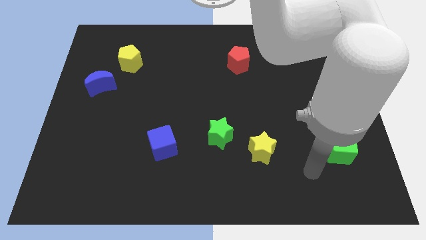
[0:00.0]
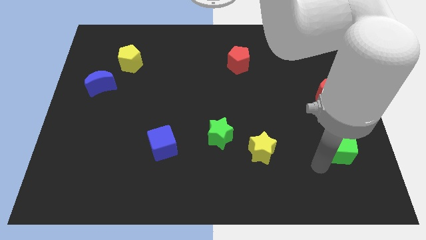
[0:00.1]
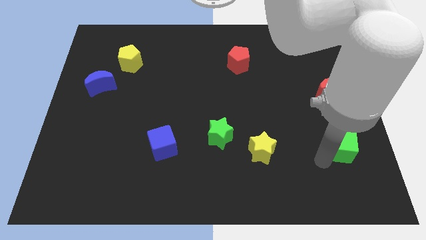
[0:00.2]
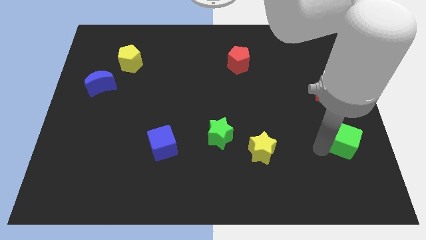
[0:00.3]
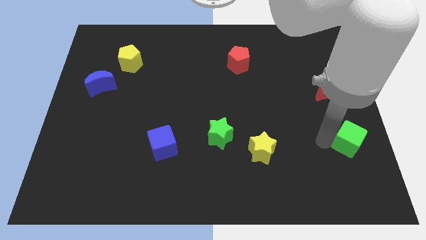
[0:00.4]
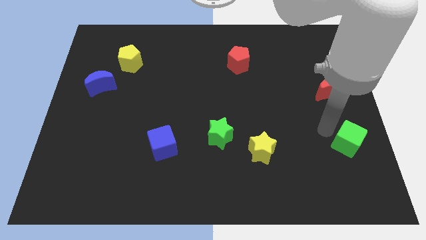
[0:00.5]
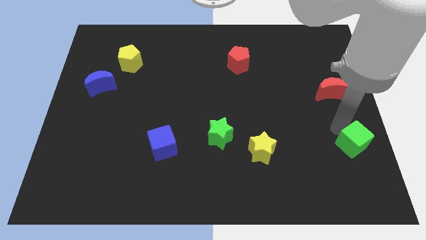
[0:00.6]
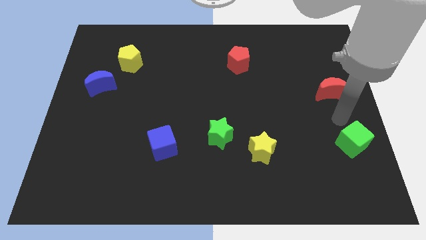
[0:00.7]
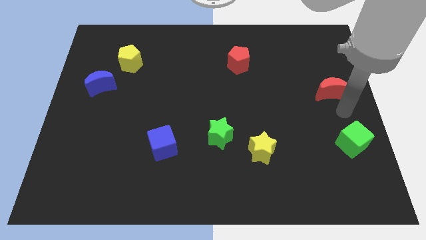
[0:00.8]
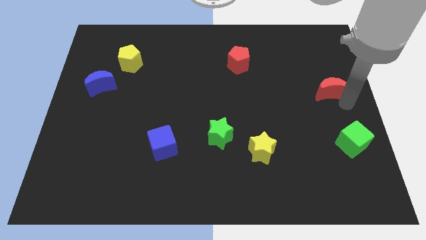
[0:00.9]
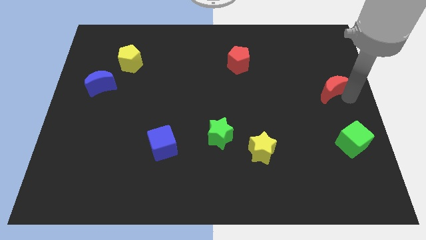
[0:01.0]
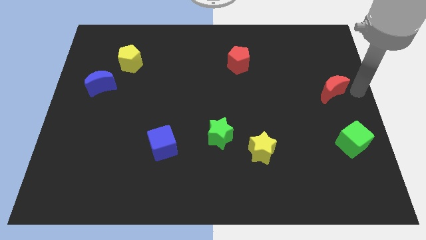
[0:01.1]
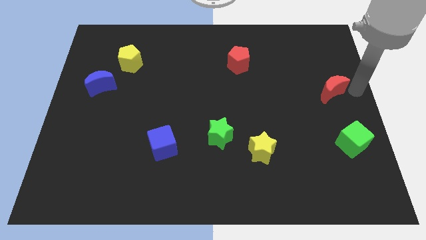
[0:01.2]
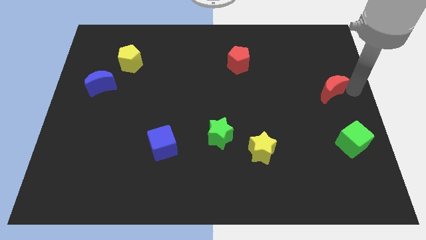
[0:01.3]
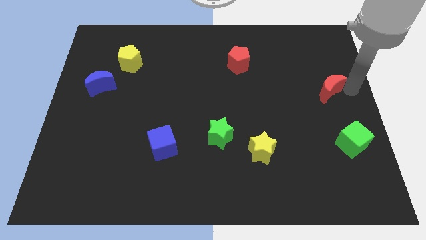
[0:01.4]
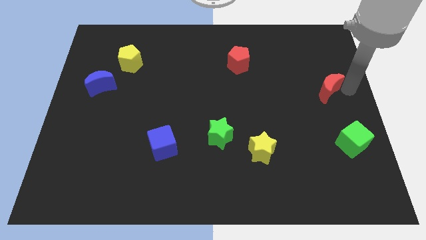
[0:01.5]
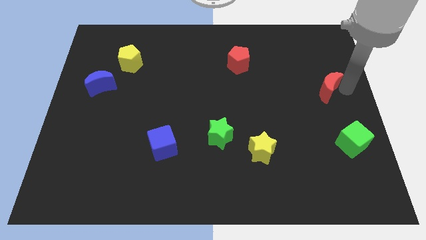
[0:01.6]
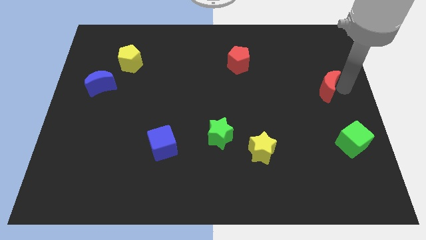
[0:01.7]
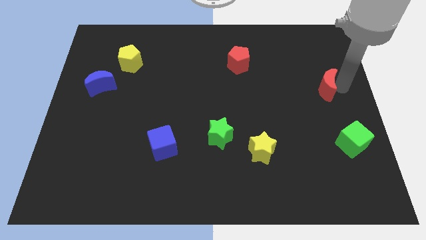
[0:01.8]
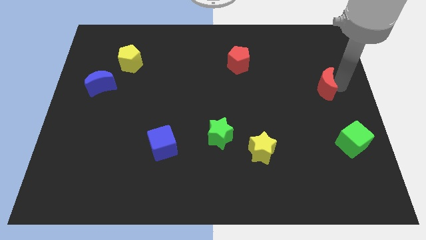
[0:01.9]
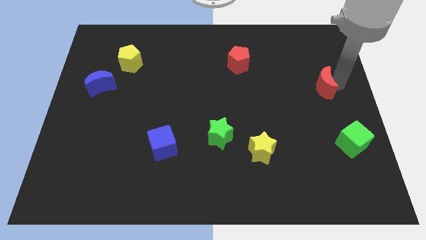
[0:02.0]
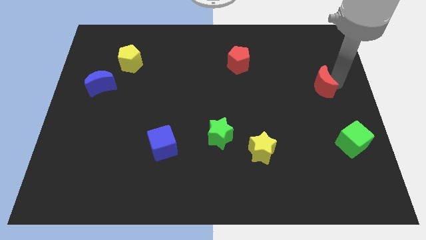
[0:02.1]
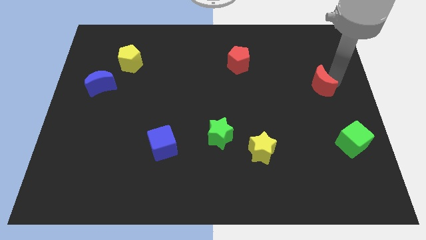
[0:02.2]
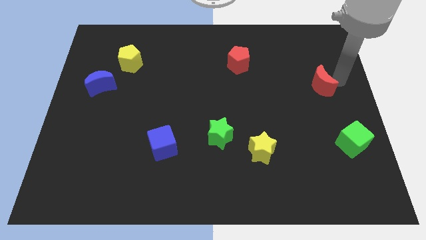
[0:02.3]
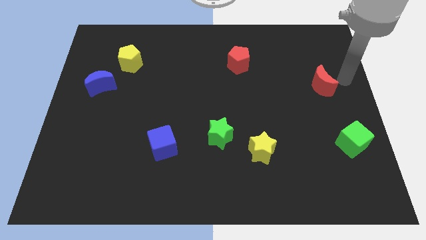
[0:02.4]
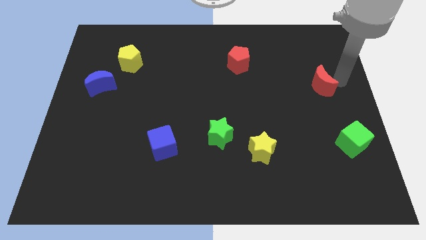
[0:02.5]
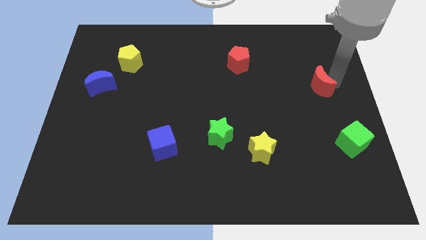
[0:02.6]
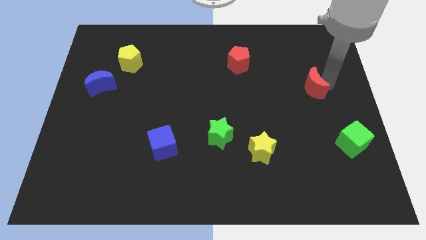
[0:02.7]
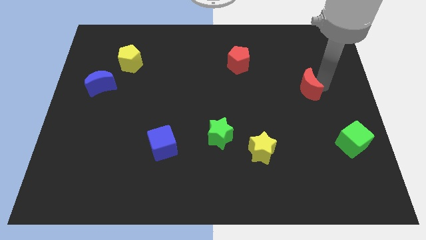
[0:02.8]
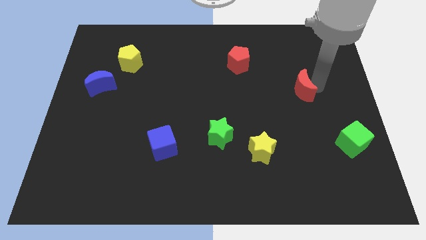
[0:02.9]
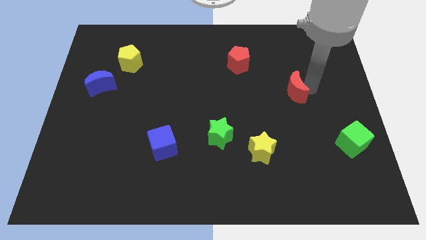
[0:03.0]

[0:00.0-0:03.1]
slide the red moon to the left a little

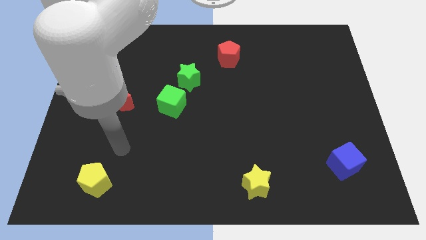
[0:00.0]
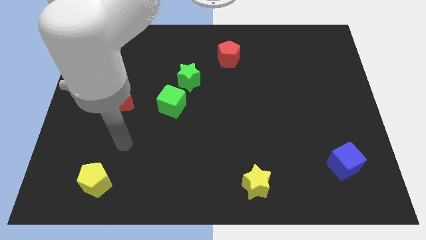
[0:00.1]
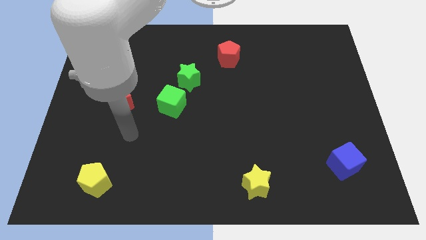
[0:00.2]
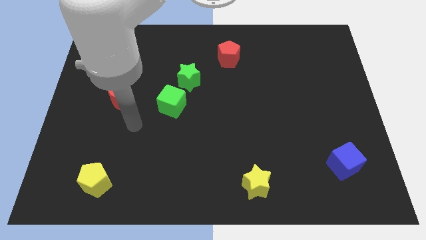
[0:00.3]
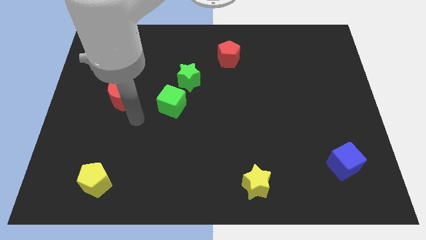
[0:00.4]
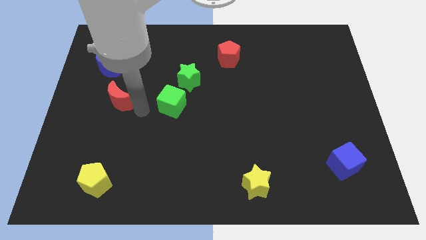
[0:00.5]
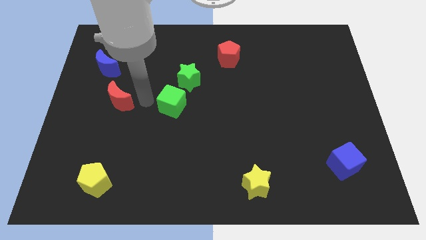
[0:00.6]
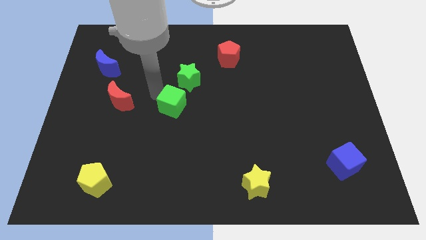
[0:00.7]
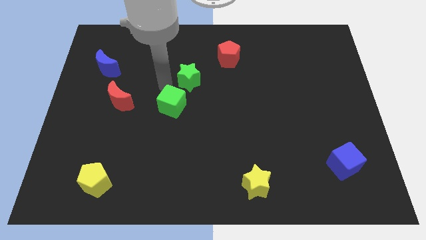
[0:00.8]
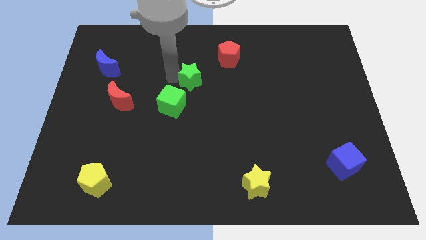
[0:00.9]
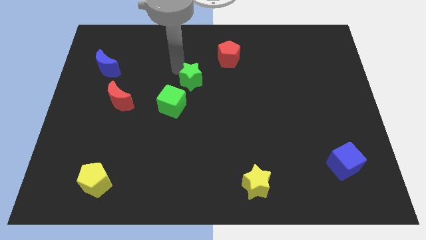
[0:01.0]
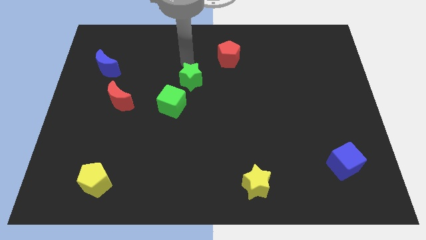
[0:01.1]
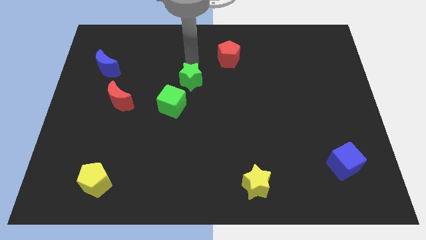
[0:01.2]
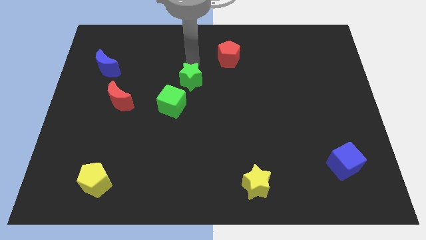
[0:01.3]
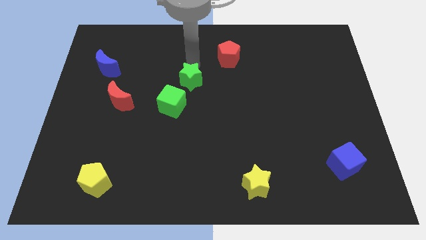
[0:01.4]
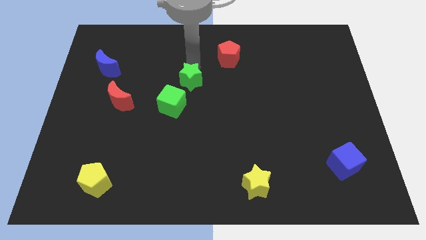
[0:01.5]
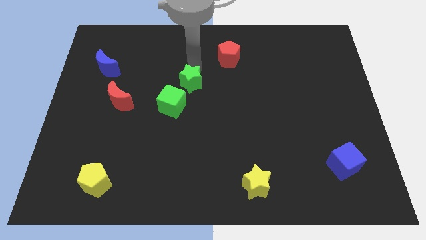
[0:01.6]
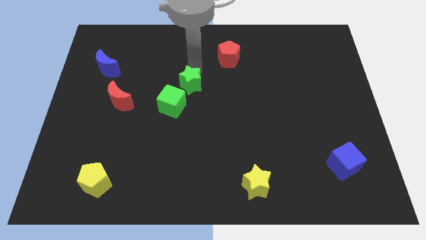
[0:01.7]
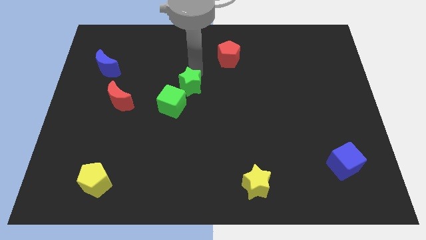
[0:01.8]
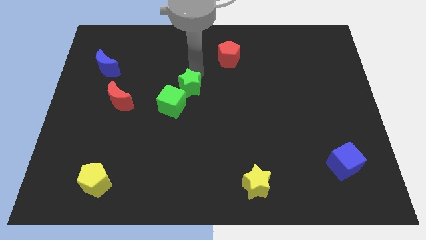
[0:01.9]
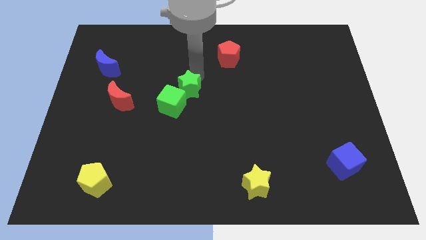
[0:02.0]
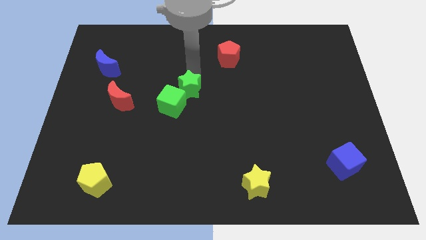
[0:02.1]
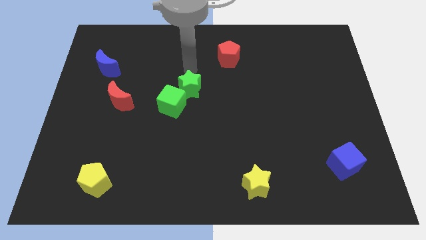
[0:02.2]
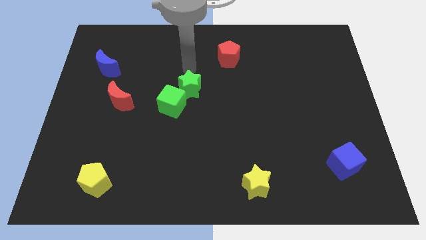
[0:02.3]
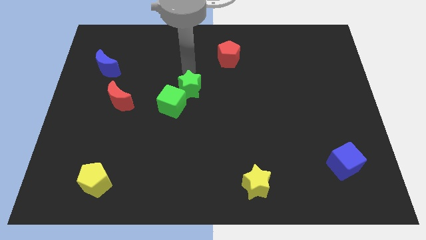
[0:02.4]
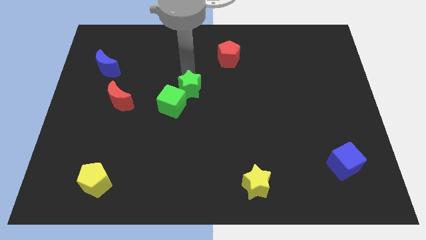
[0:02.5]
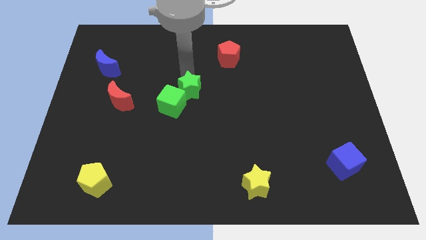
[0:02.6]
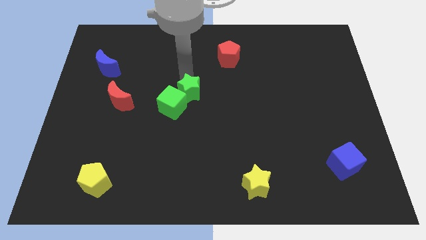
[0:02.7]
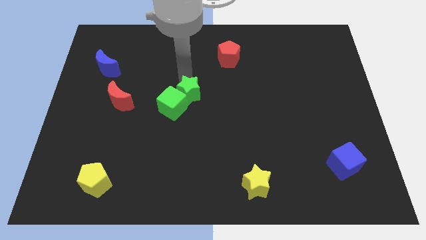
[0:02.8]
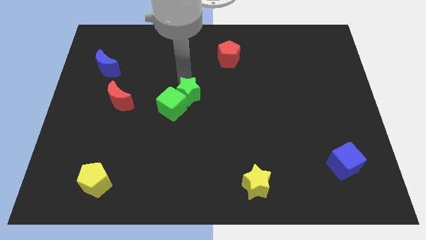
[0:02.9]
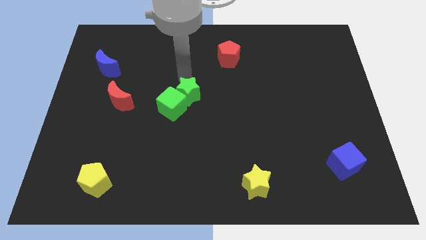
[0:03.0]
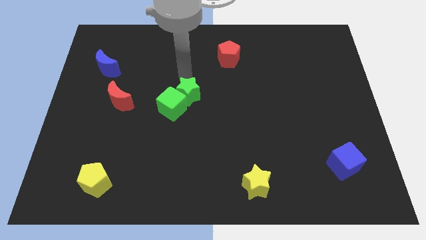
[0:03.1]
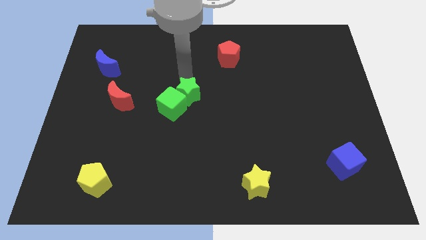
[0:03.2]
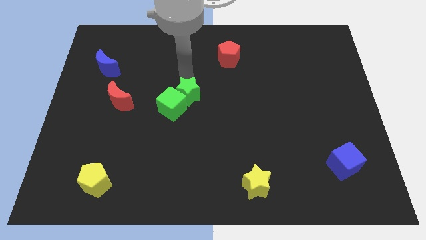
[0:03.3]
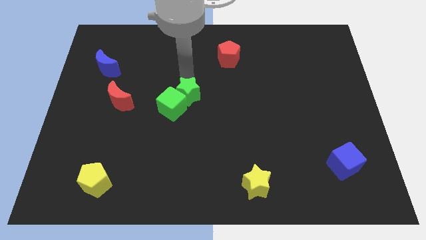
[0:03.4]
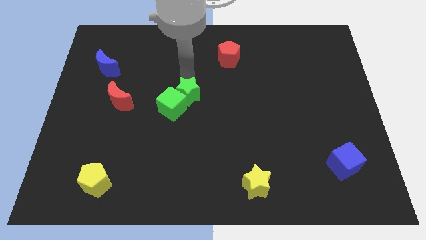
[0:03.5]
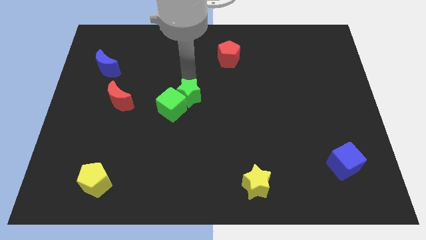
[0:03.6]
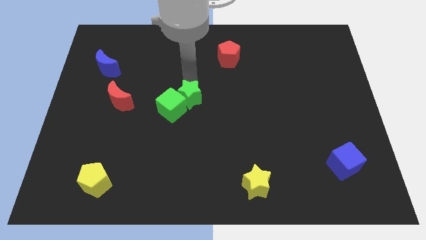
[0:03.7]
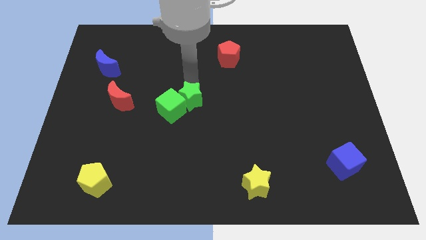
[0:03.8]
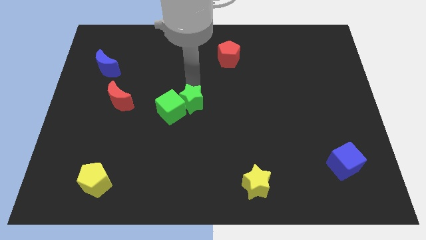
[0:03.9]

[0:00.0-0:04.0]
slide the green star downwards a little

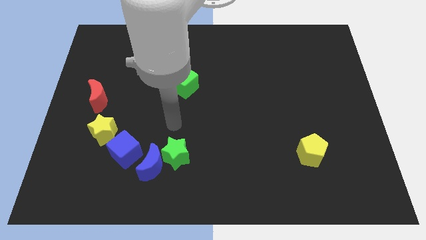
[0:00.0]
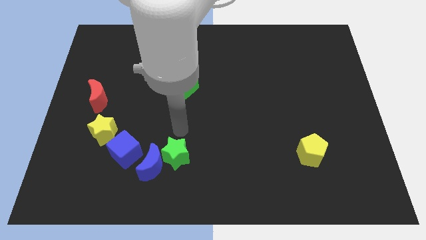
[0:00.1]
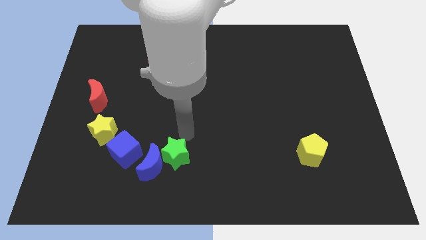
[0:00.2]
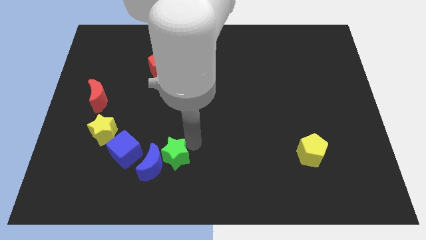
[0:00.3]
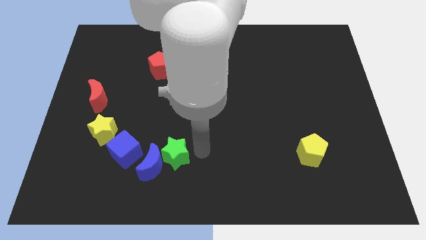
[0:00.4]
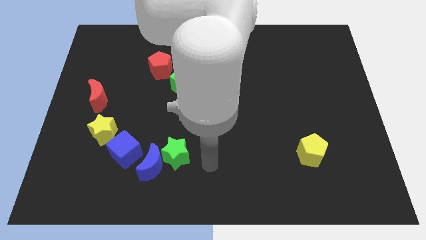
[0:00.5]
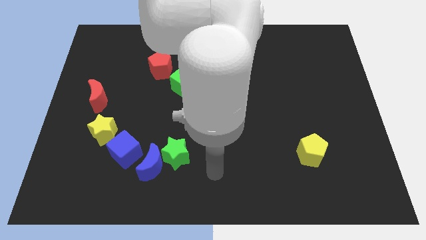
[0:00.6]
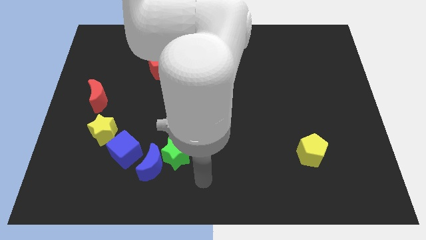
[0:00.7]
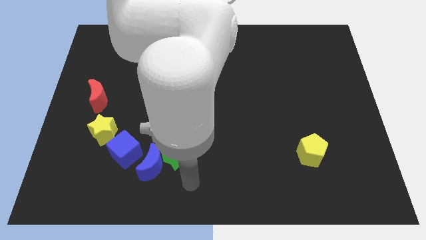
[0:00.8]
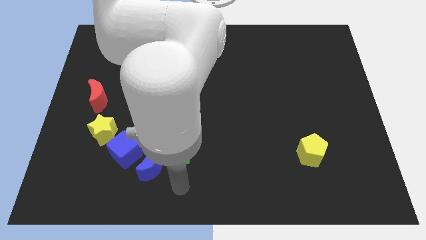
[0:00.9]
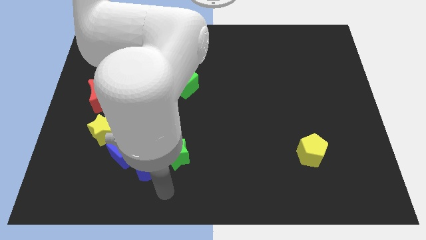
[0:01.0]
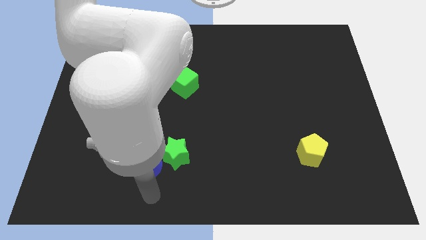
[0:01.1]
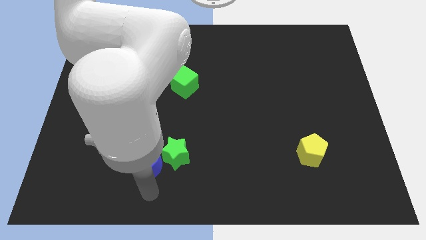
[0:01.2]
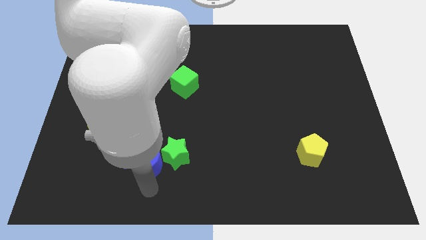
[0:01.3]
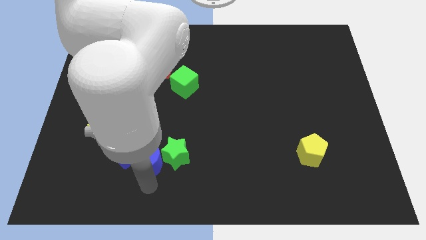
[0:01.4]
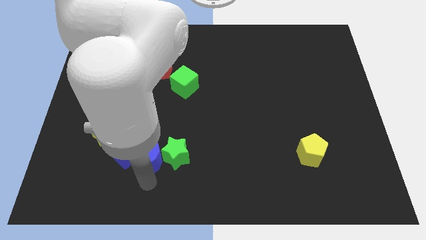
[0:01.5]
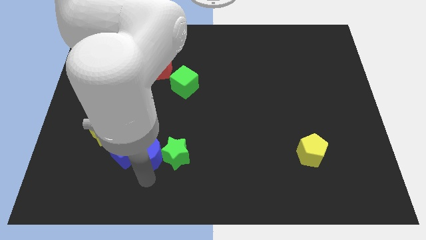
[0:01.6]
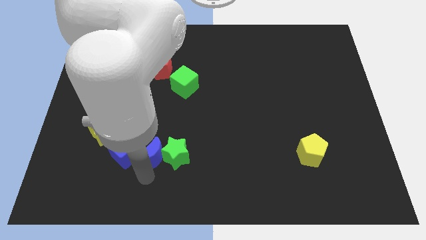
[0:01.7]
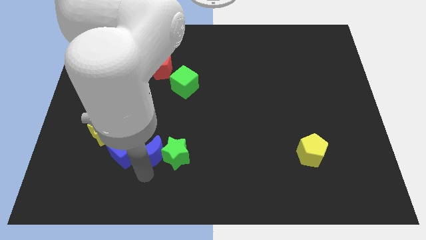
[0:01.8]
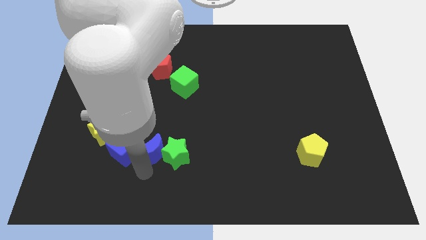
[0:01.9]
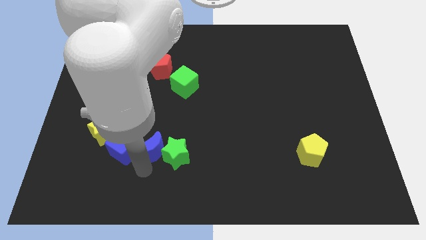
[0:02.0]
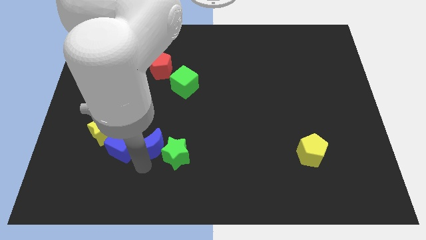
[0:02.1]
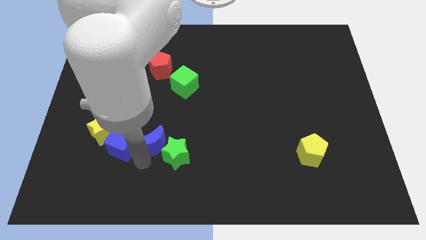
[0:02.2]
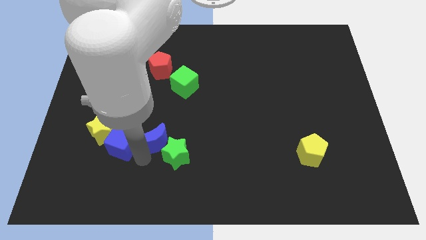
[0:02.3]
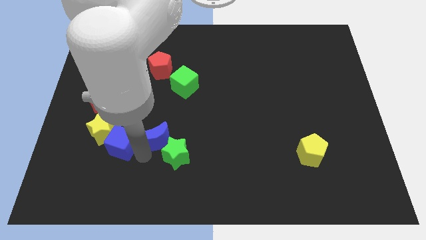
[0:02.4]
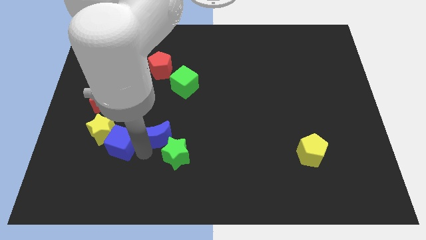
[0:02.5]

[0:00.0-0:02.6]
slide the blue moon a little upwards
